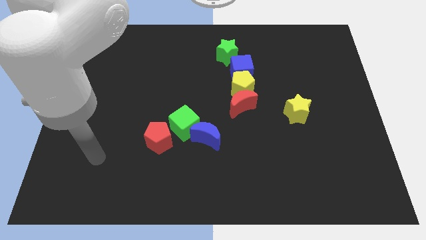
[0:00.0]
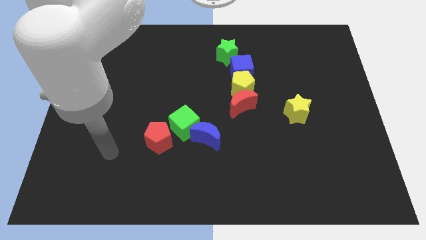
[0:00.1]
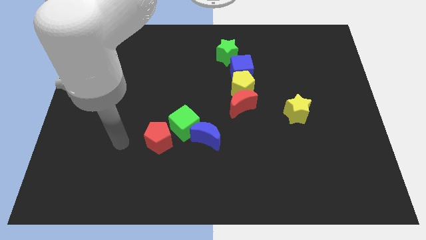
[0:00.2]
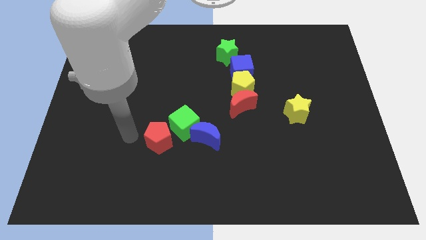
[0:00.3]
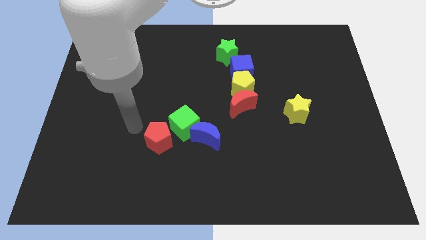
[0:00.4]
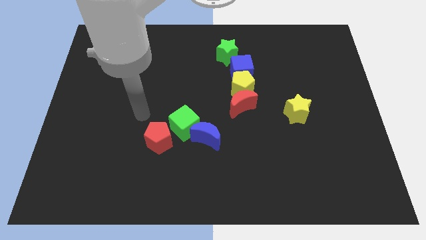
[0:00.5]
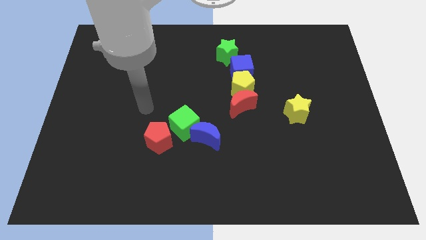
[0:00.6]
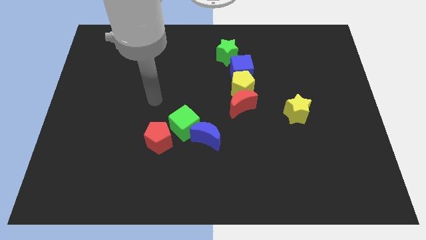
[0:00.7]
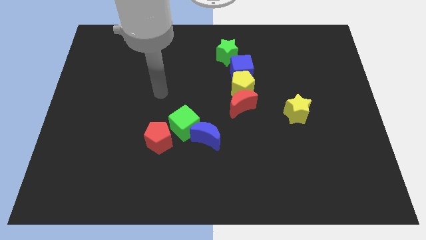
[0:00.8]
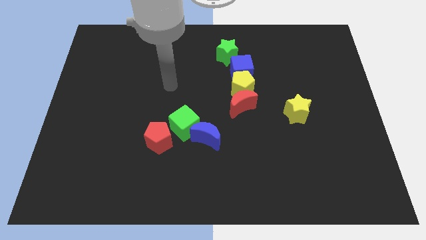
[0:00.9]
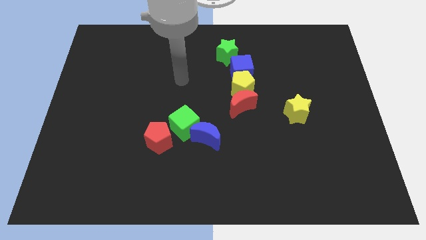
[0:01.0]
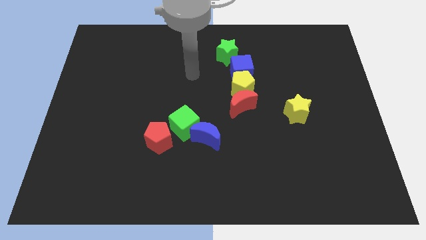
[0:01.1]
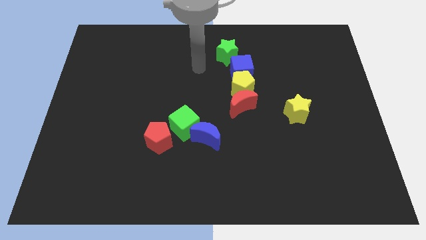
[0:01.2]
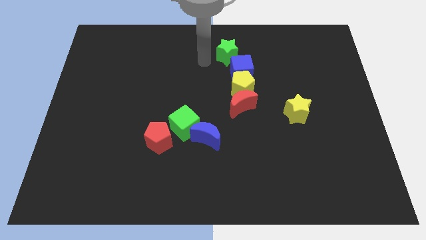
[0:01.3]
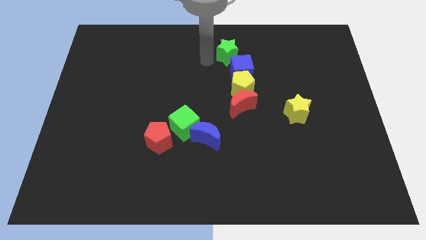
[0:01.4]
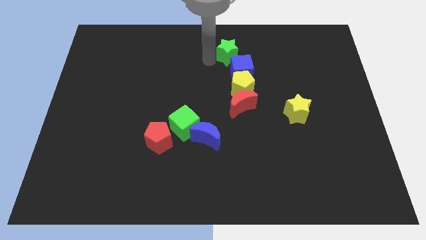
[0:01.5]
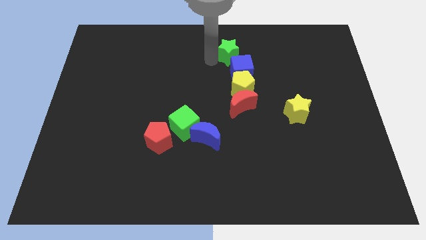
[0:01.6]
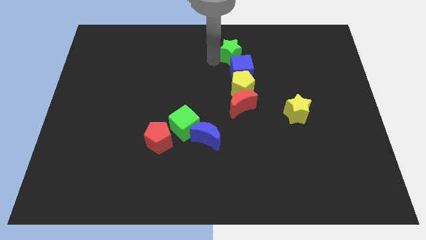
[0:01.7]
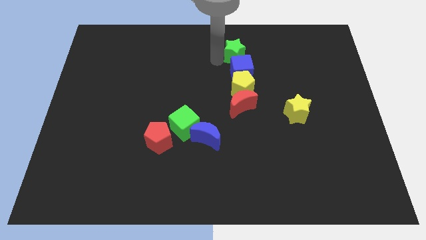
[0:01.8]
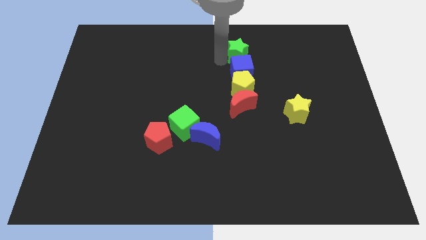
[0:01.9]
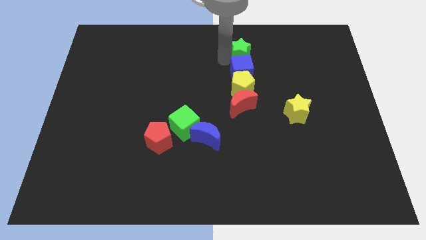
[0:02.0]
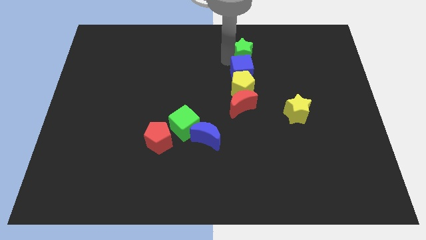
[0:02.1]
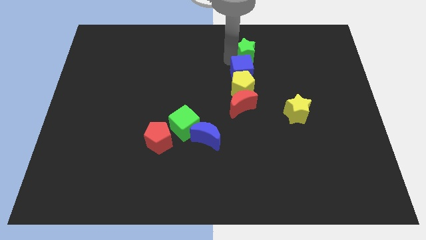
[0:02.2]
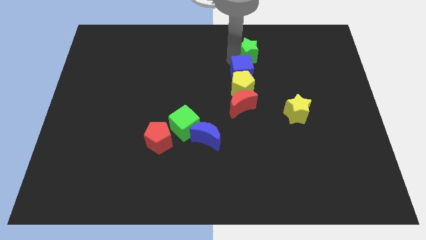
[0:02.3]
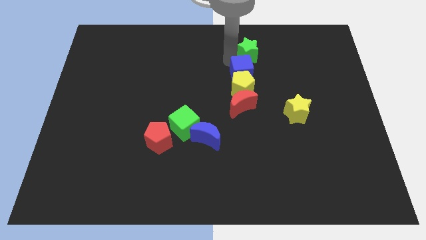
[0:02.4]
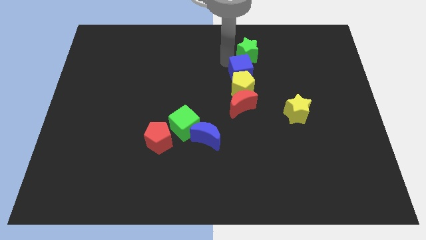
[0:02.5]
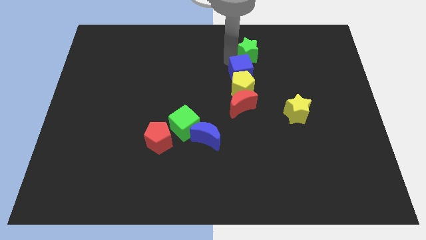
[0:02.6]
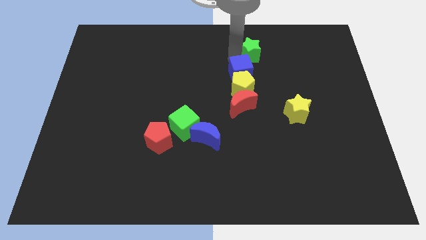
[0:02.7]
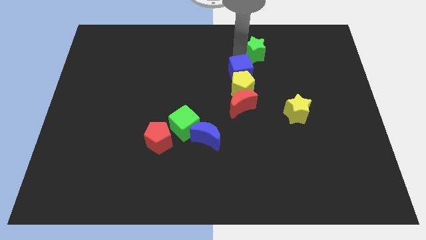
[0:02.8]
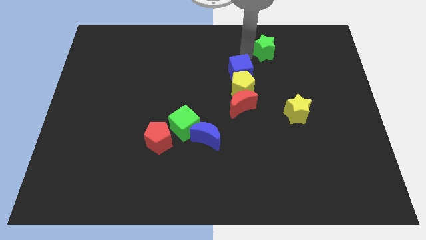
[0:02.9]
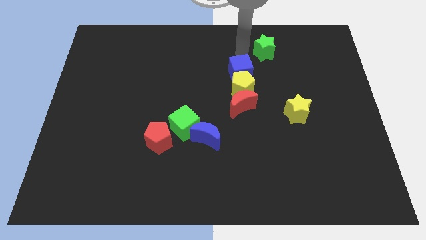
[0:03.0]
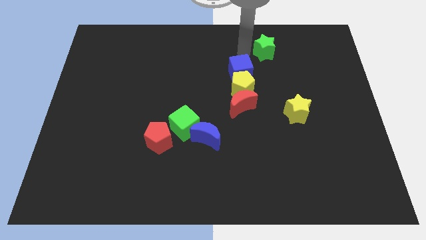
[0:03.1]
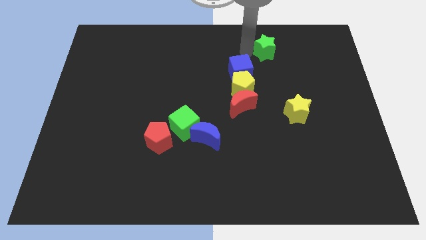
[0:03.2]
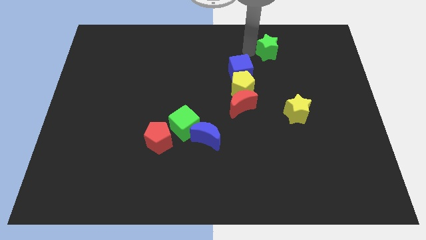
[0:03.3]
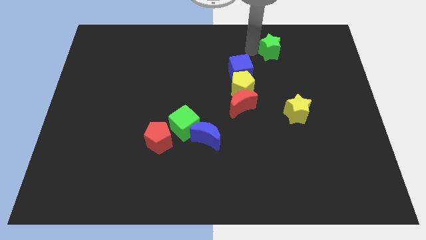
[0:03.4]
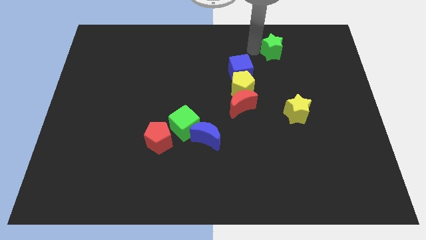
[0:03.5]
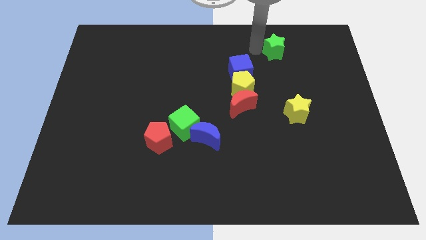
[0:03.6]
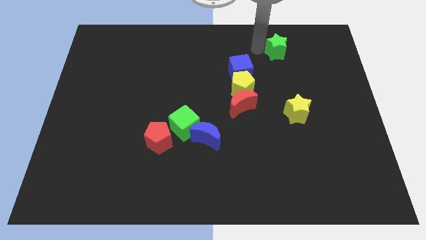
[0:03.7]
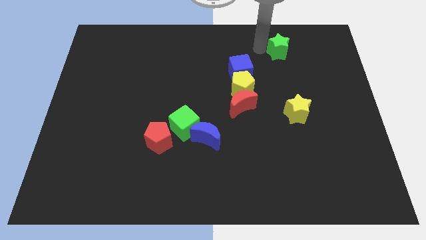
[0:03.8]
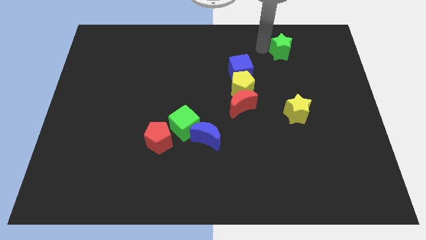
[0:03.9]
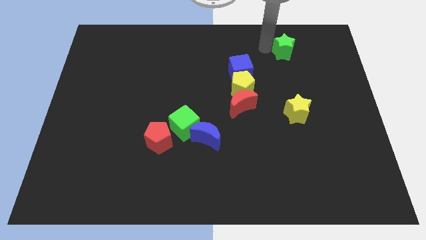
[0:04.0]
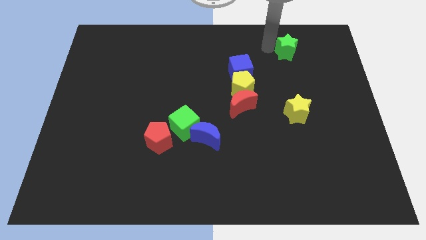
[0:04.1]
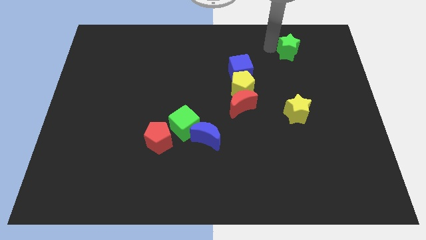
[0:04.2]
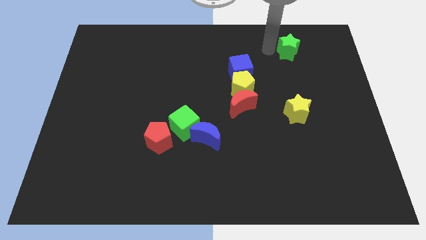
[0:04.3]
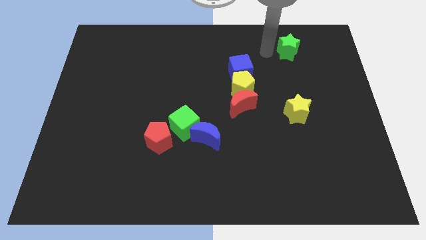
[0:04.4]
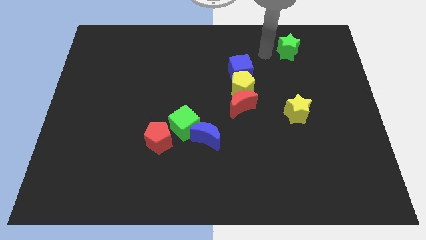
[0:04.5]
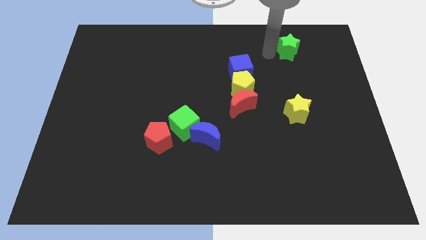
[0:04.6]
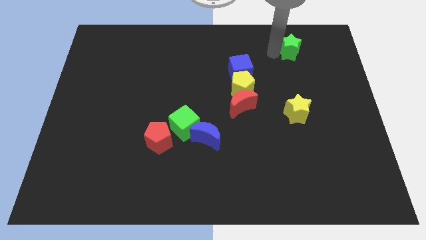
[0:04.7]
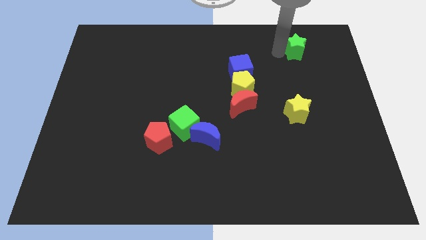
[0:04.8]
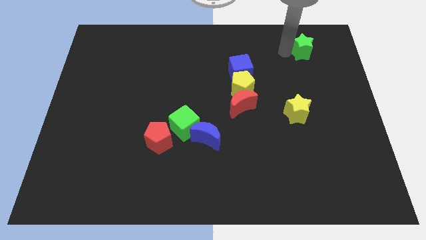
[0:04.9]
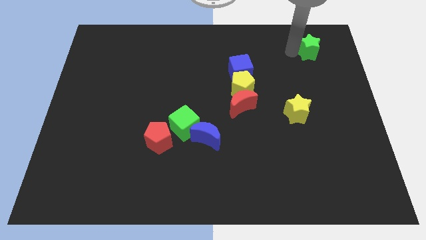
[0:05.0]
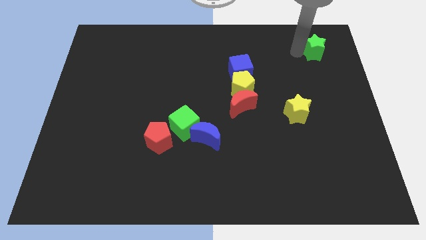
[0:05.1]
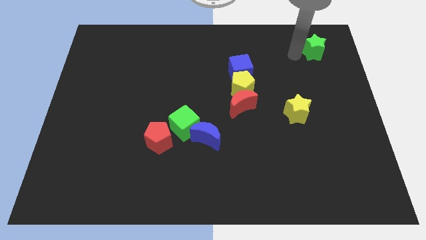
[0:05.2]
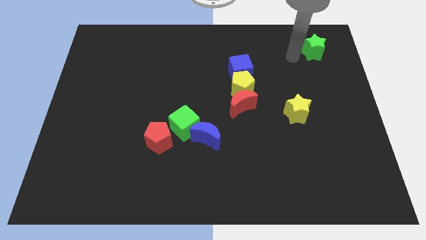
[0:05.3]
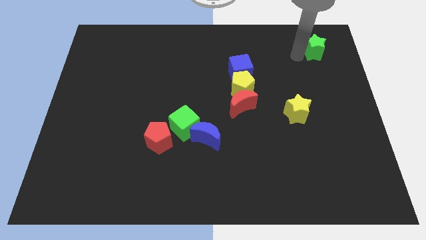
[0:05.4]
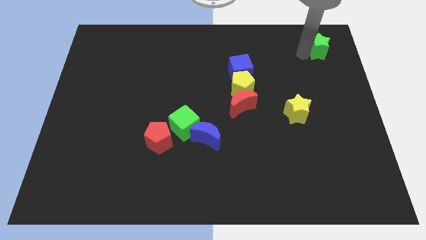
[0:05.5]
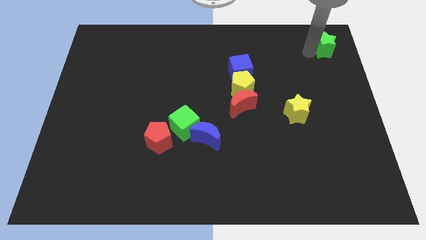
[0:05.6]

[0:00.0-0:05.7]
put the green star to the top right corner

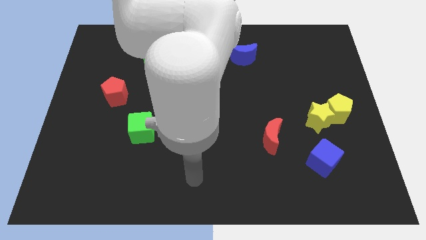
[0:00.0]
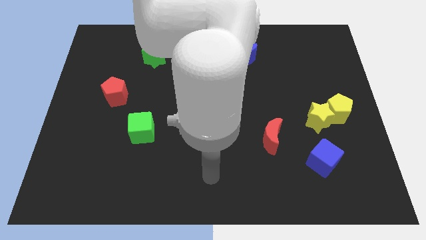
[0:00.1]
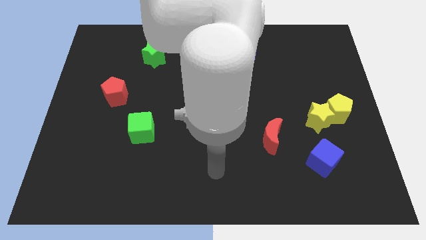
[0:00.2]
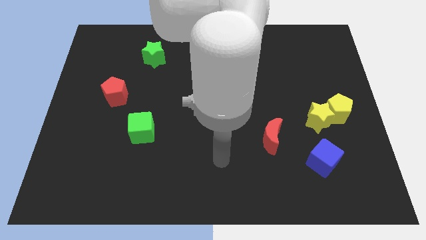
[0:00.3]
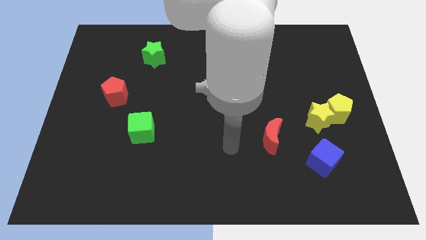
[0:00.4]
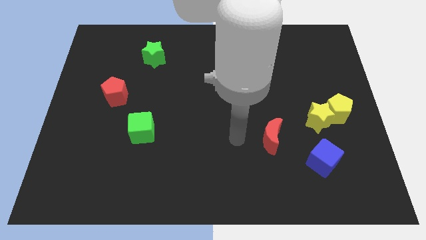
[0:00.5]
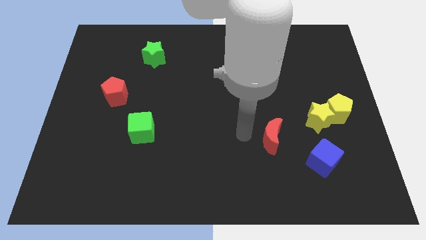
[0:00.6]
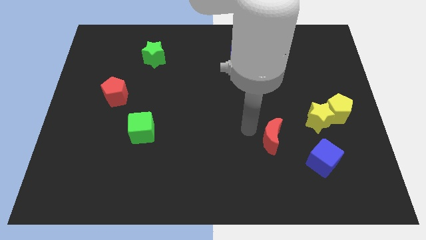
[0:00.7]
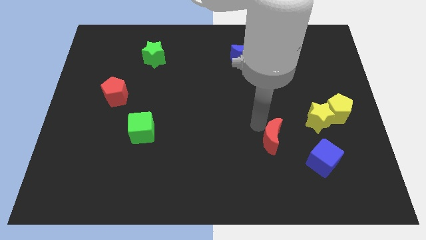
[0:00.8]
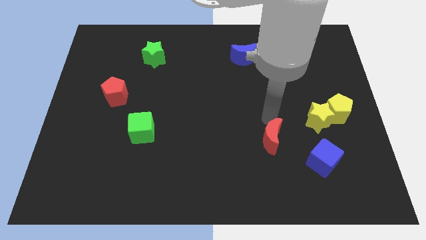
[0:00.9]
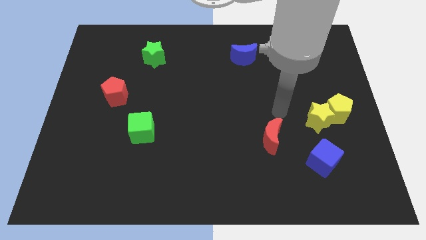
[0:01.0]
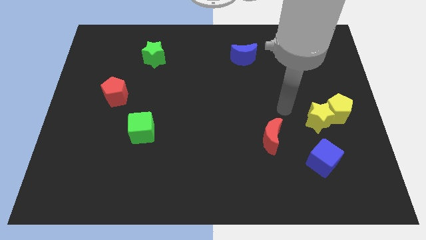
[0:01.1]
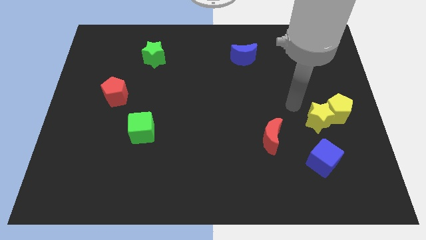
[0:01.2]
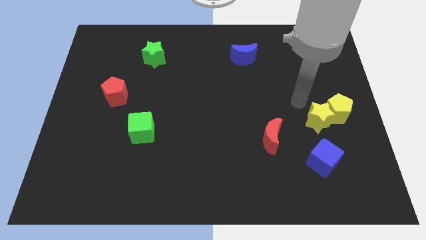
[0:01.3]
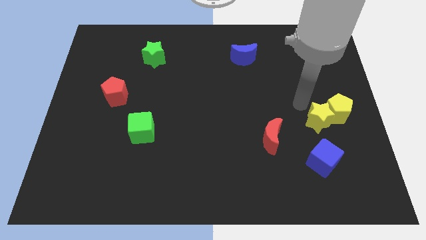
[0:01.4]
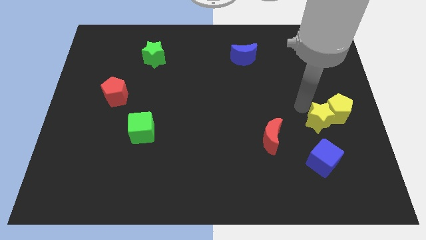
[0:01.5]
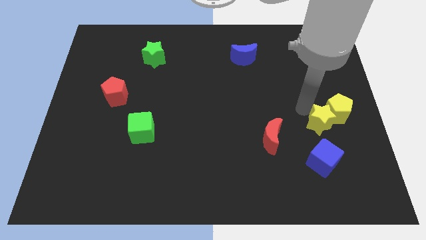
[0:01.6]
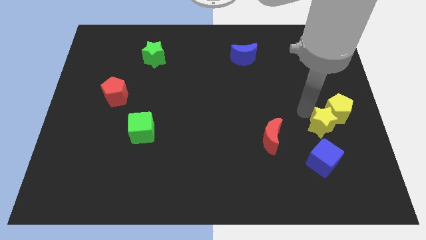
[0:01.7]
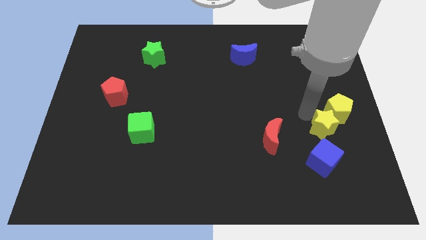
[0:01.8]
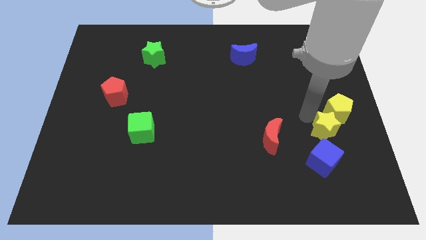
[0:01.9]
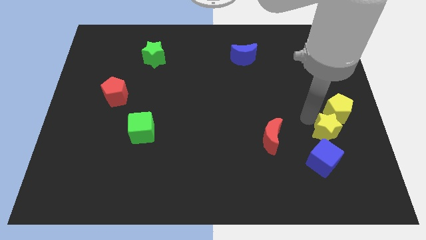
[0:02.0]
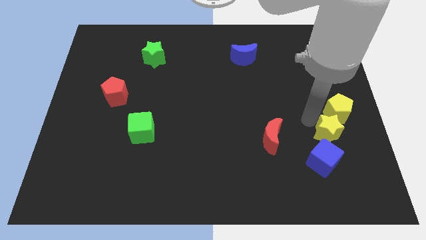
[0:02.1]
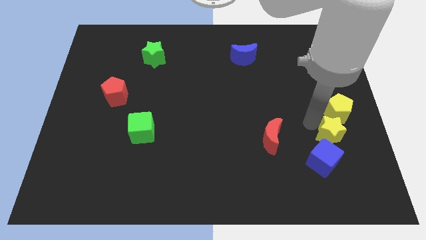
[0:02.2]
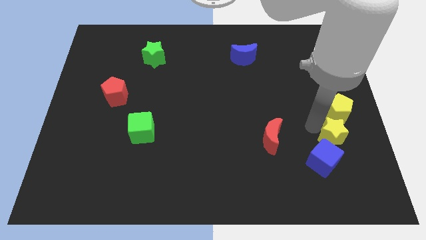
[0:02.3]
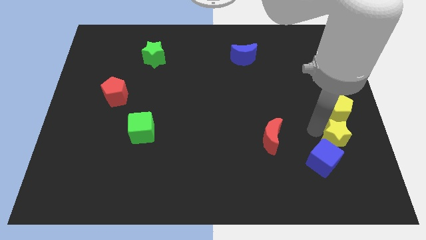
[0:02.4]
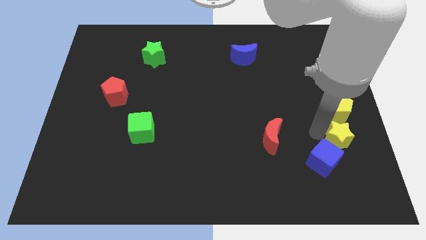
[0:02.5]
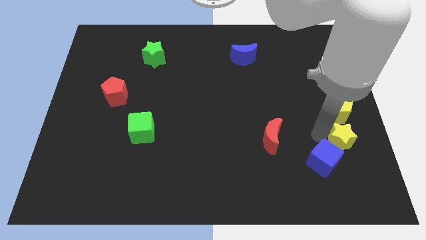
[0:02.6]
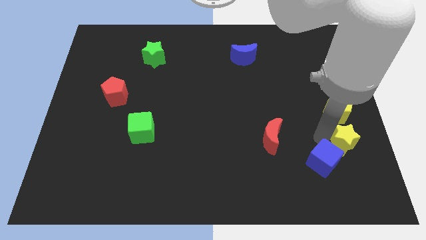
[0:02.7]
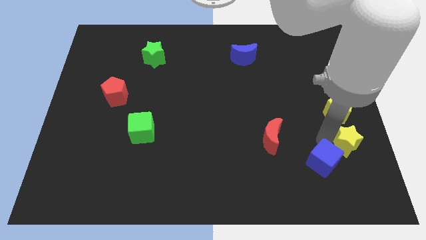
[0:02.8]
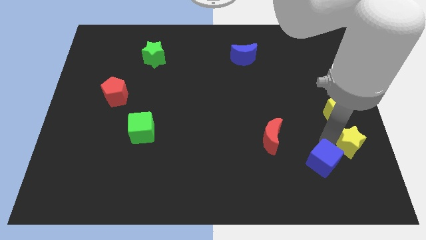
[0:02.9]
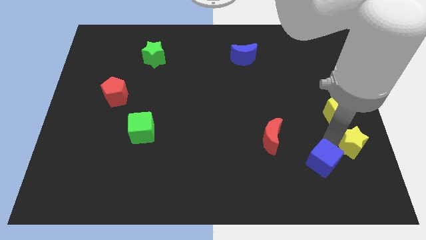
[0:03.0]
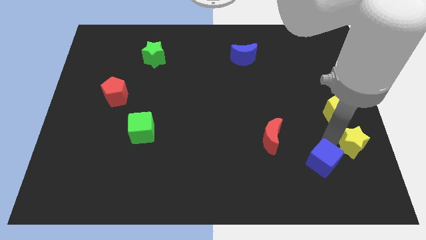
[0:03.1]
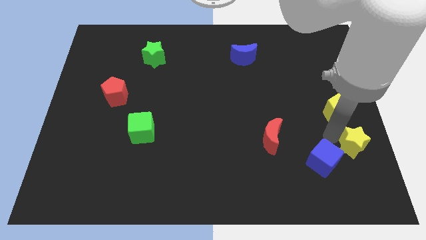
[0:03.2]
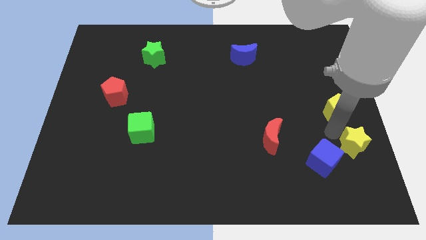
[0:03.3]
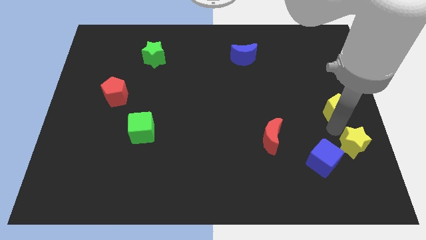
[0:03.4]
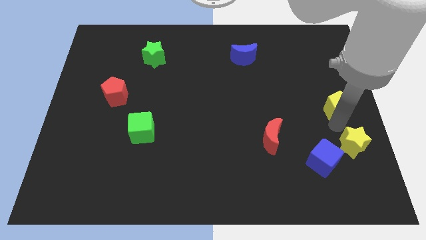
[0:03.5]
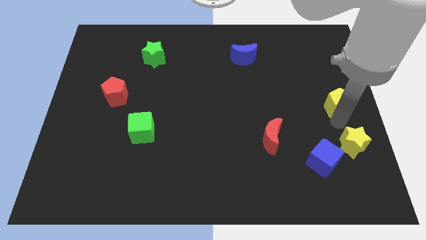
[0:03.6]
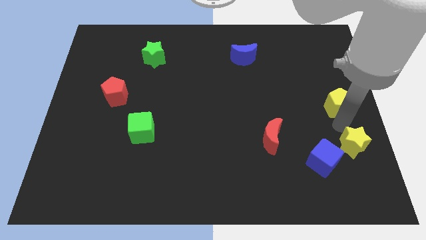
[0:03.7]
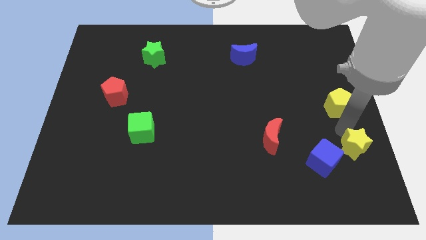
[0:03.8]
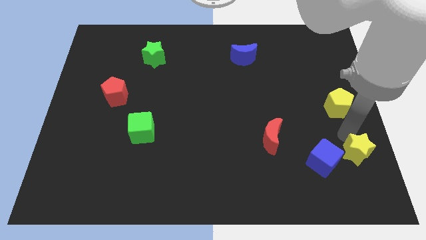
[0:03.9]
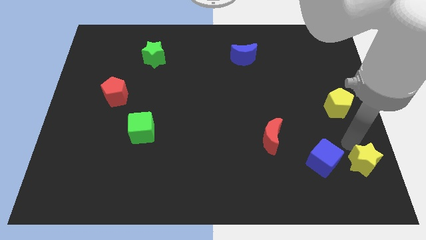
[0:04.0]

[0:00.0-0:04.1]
put the yellow star to the bottom right of the board
